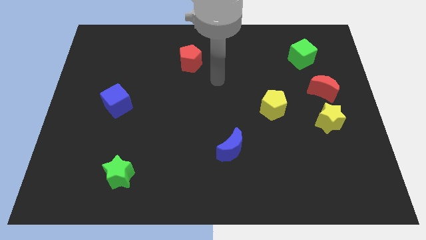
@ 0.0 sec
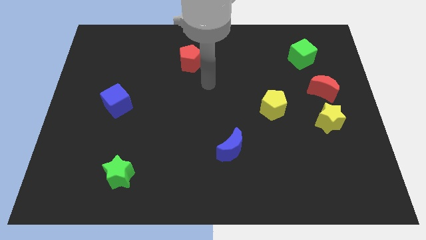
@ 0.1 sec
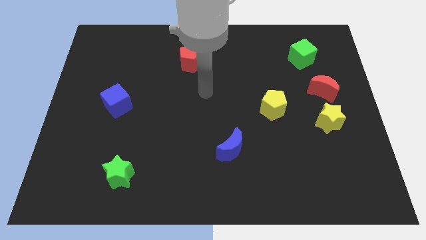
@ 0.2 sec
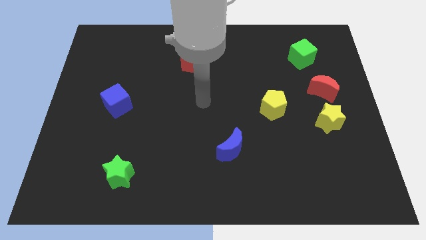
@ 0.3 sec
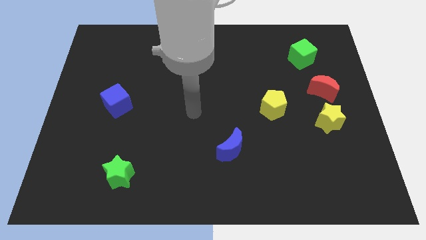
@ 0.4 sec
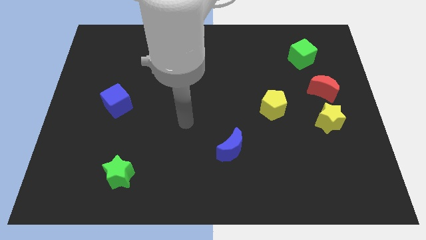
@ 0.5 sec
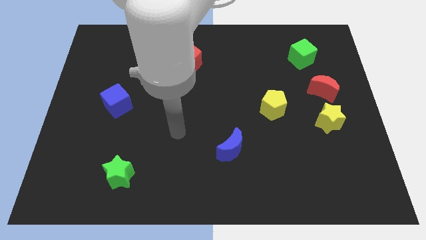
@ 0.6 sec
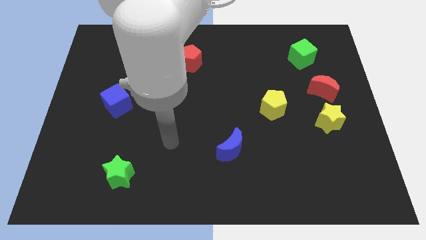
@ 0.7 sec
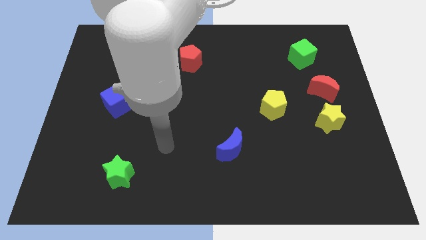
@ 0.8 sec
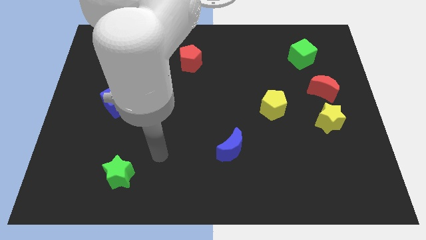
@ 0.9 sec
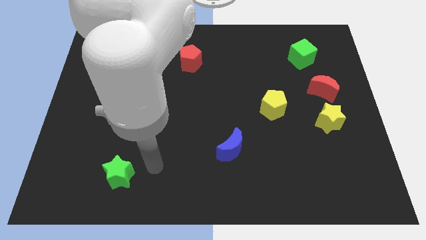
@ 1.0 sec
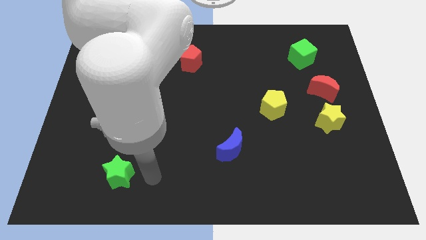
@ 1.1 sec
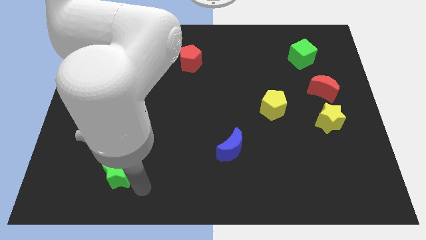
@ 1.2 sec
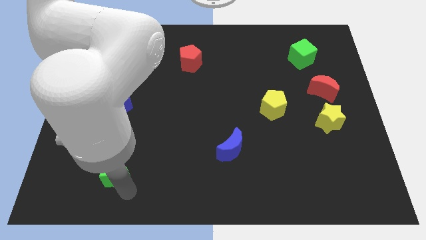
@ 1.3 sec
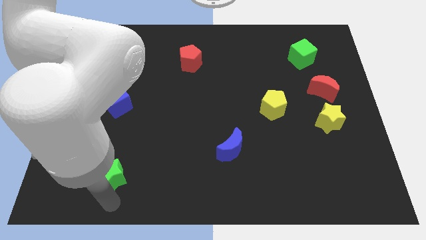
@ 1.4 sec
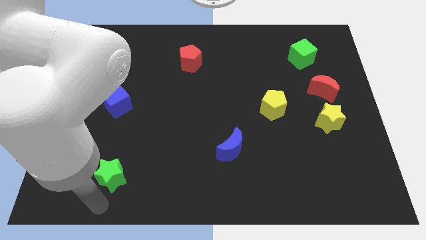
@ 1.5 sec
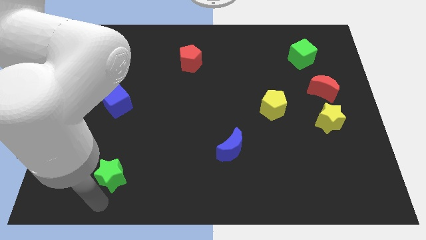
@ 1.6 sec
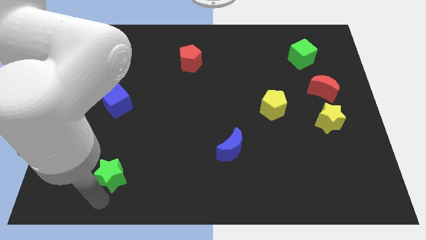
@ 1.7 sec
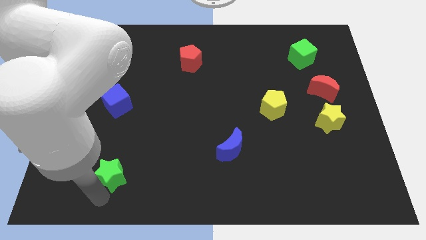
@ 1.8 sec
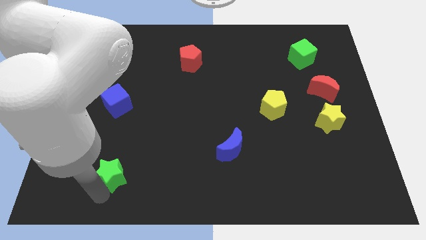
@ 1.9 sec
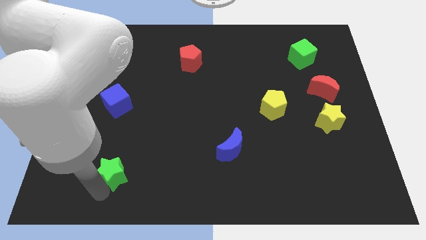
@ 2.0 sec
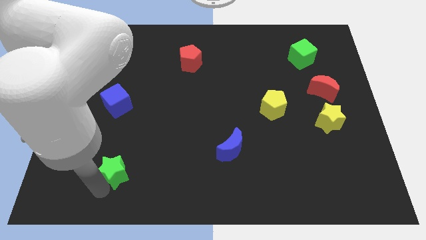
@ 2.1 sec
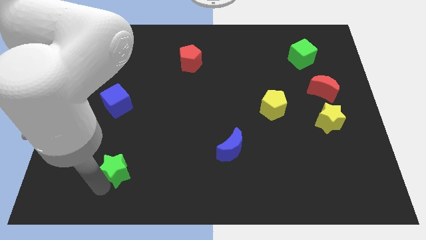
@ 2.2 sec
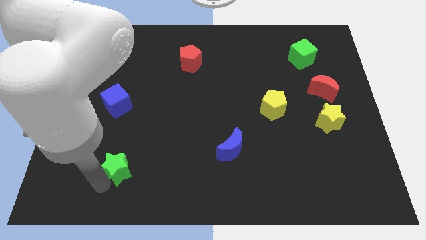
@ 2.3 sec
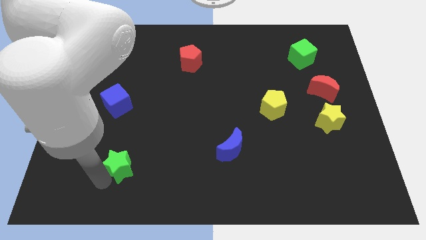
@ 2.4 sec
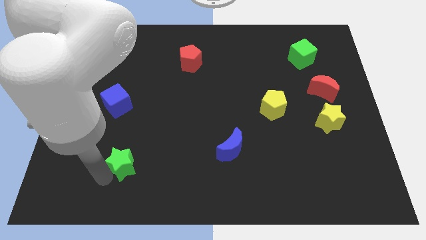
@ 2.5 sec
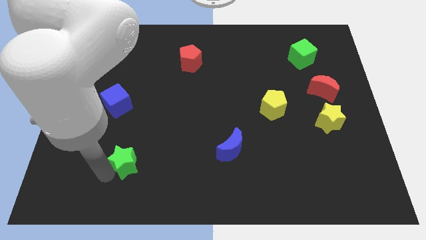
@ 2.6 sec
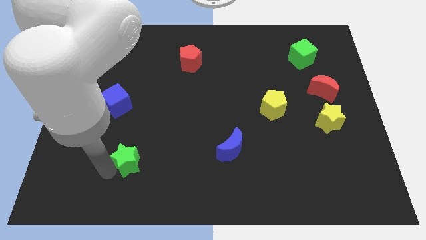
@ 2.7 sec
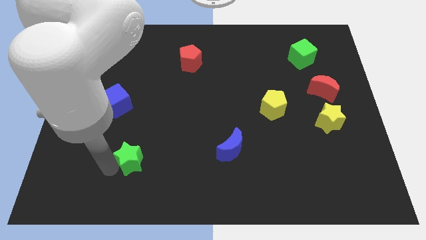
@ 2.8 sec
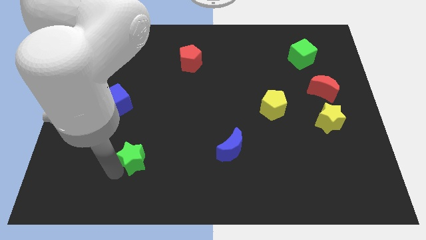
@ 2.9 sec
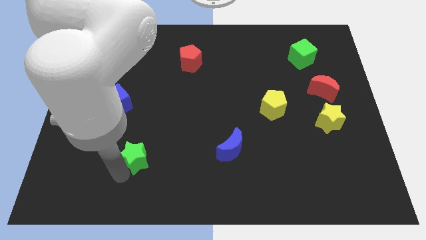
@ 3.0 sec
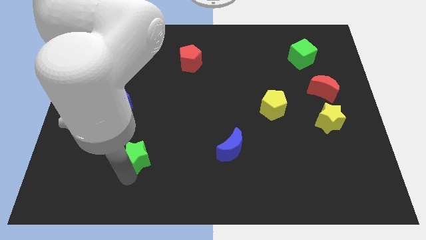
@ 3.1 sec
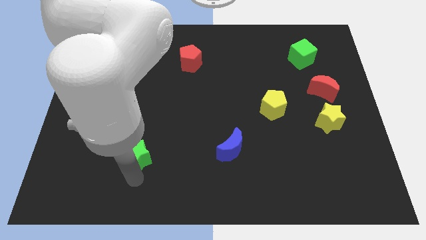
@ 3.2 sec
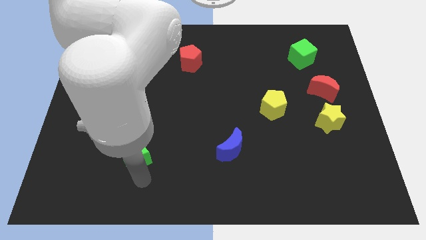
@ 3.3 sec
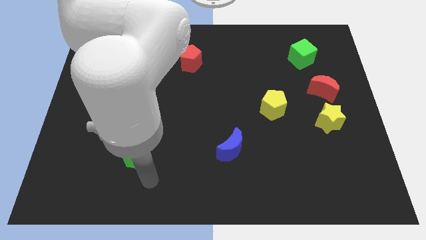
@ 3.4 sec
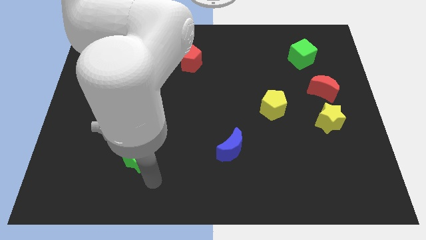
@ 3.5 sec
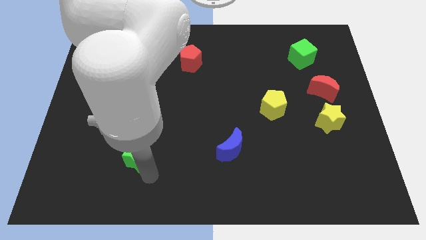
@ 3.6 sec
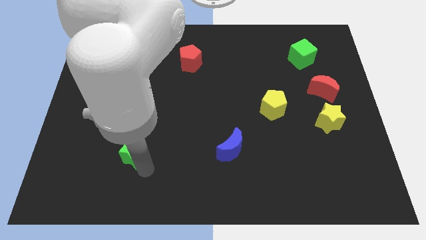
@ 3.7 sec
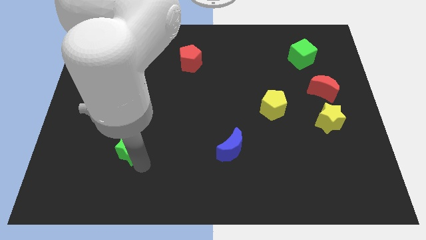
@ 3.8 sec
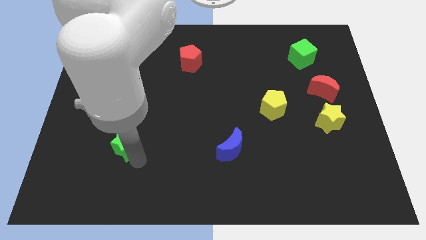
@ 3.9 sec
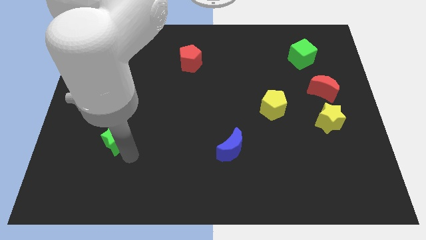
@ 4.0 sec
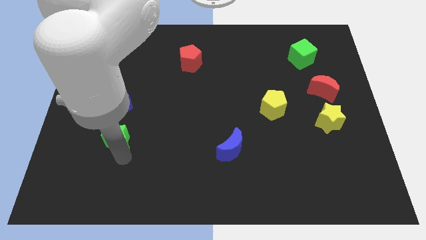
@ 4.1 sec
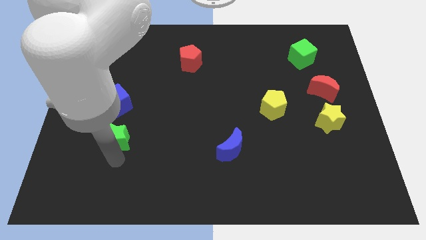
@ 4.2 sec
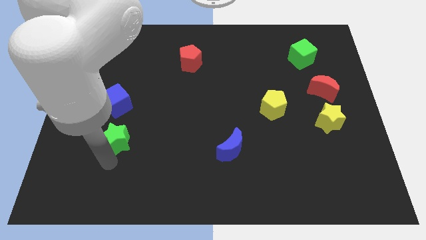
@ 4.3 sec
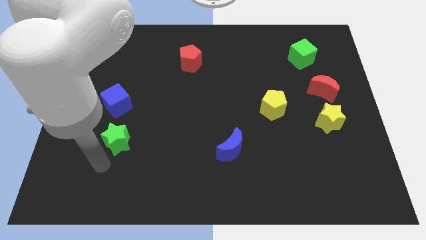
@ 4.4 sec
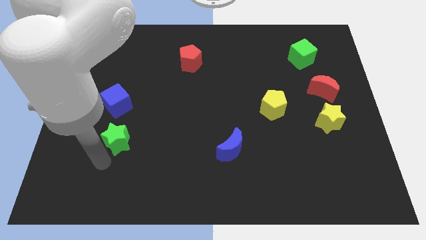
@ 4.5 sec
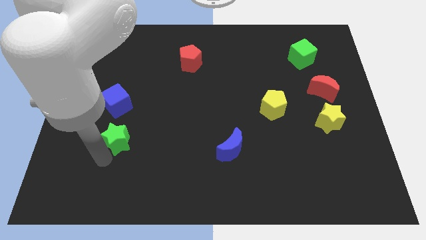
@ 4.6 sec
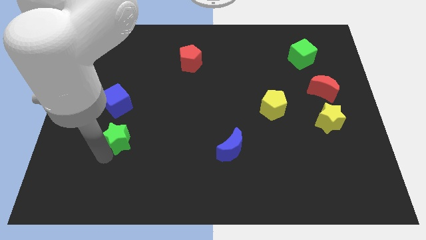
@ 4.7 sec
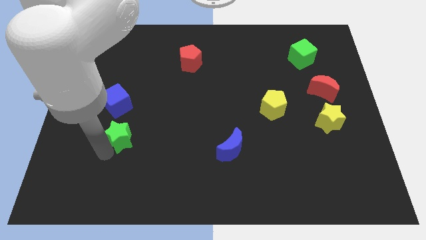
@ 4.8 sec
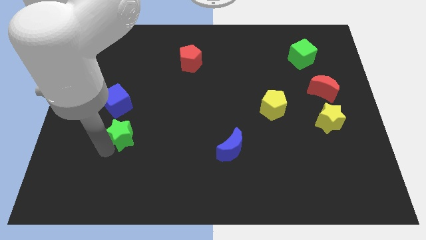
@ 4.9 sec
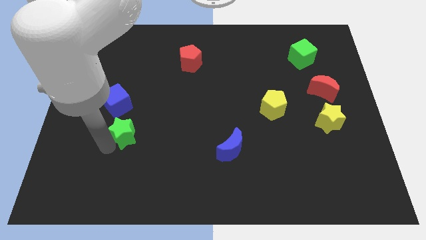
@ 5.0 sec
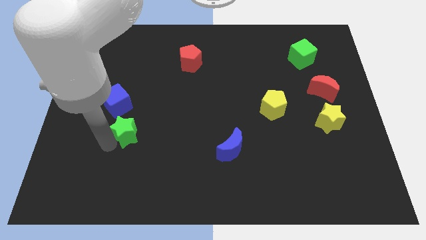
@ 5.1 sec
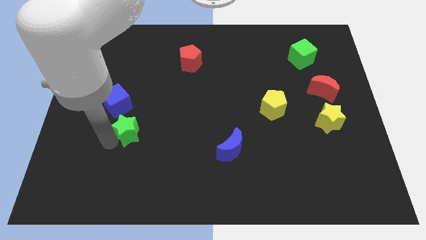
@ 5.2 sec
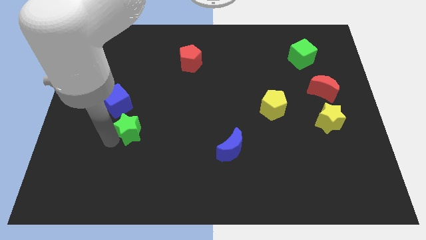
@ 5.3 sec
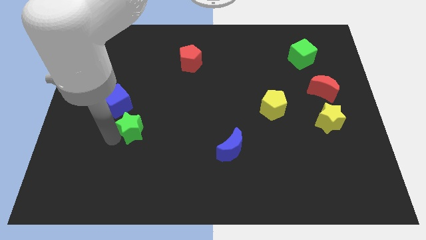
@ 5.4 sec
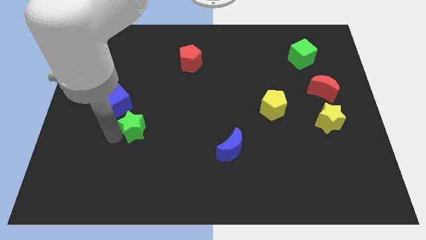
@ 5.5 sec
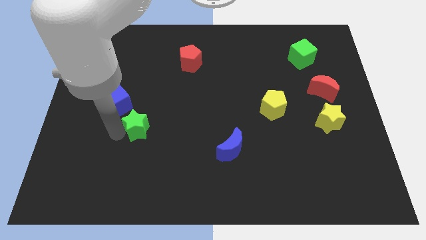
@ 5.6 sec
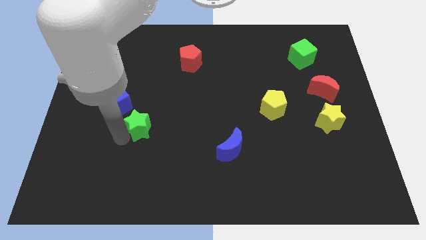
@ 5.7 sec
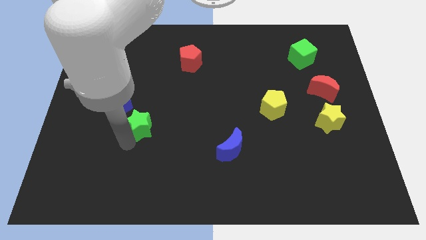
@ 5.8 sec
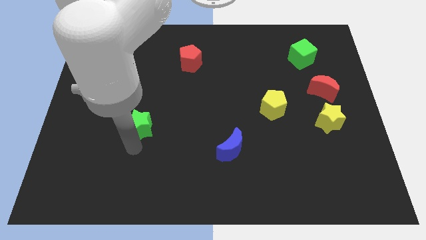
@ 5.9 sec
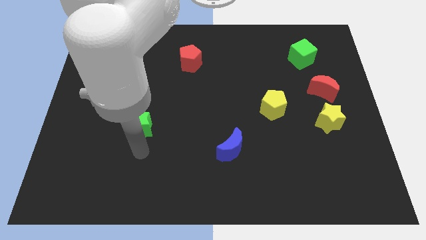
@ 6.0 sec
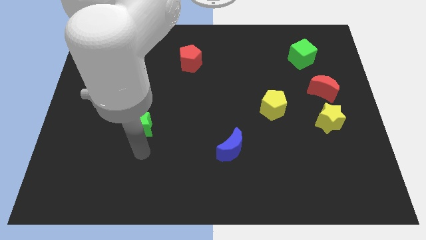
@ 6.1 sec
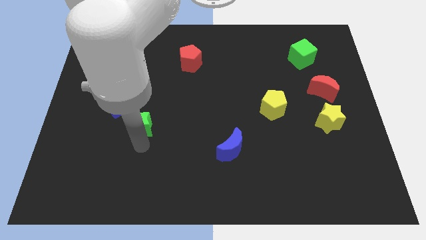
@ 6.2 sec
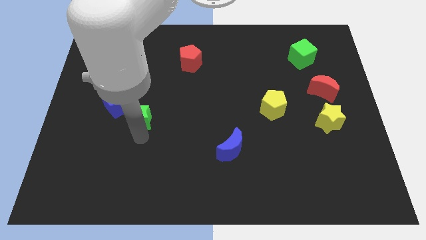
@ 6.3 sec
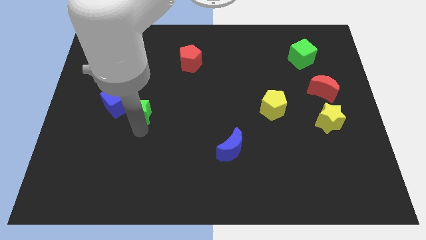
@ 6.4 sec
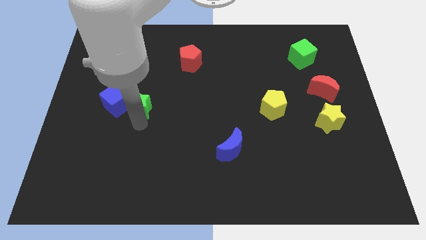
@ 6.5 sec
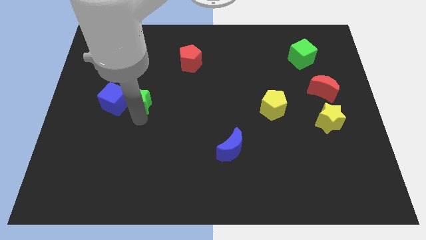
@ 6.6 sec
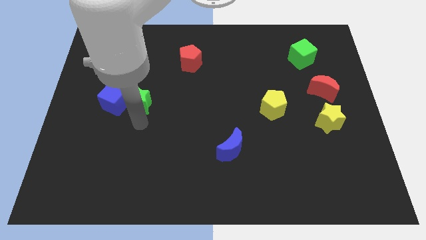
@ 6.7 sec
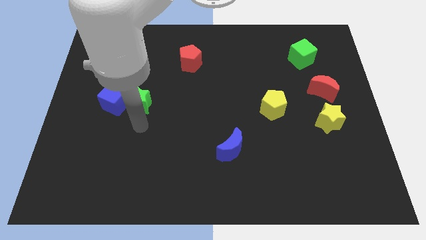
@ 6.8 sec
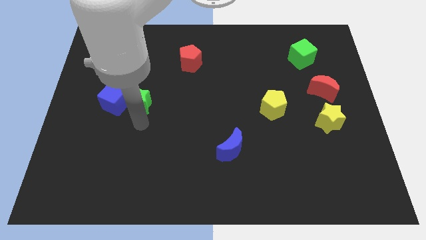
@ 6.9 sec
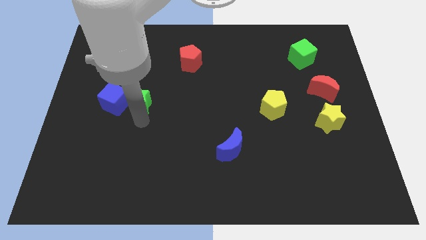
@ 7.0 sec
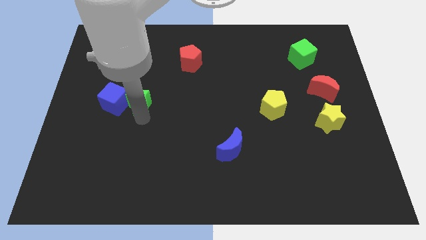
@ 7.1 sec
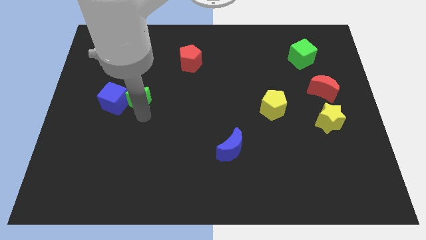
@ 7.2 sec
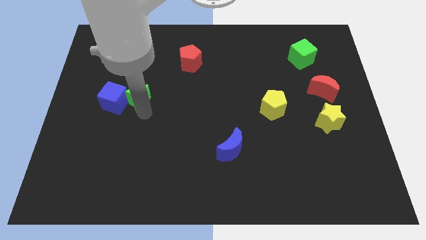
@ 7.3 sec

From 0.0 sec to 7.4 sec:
push the green star upwards

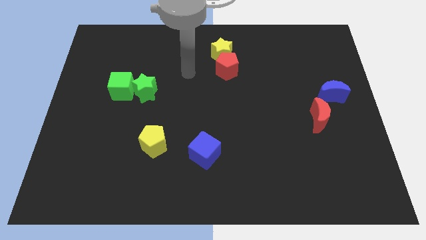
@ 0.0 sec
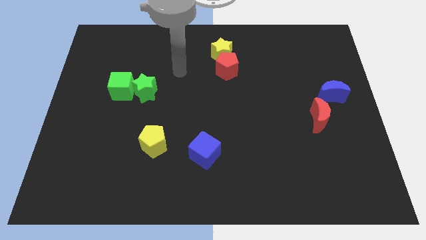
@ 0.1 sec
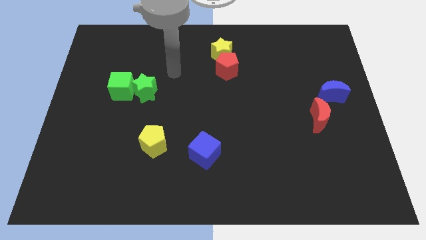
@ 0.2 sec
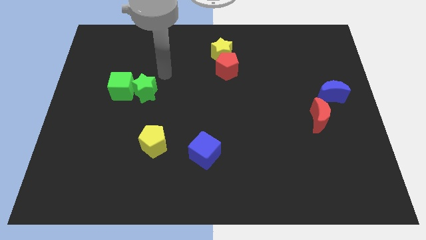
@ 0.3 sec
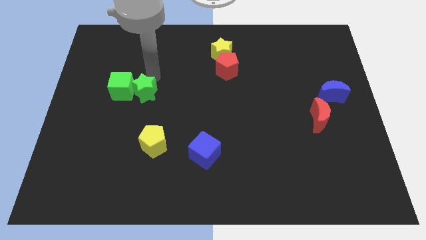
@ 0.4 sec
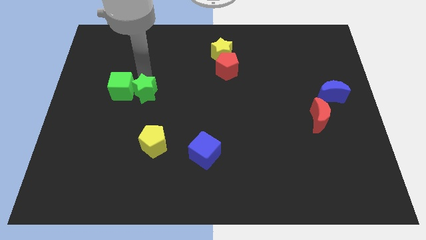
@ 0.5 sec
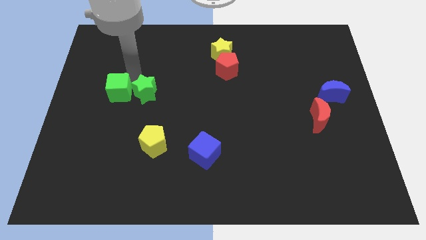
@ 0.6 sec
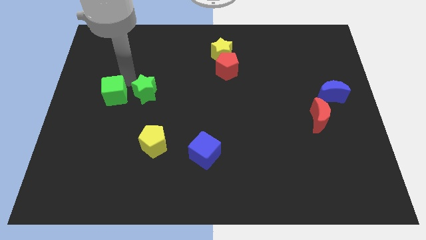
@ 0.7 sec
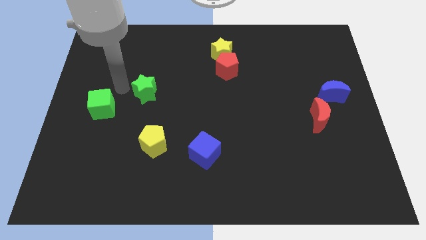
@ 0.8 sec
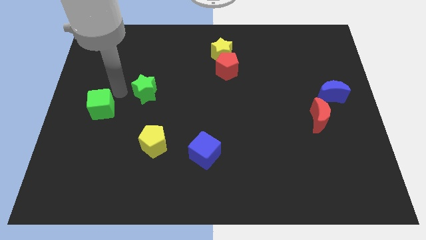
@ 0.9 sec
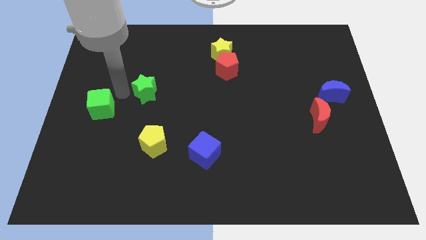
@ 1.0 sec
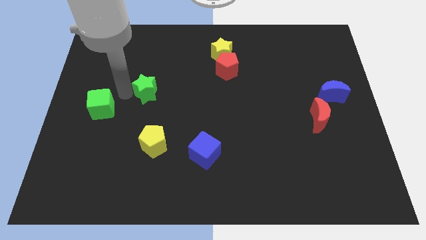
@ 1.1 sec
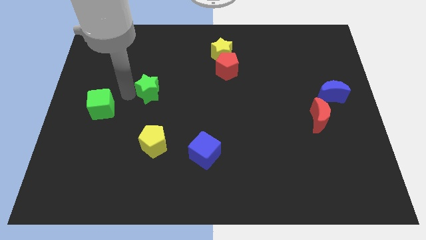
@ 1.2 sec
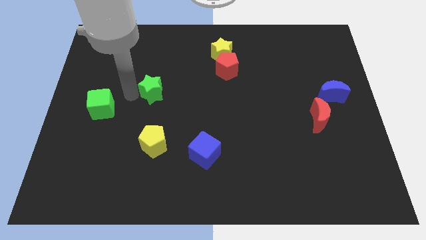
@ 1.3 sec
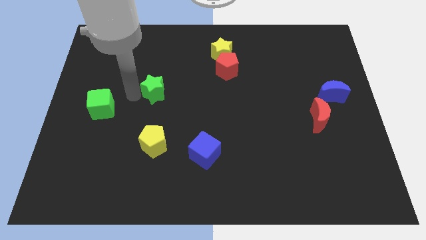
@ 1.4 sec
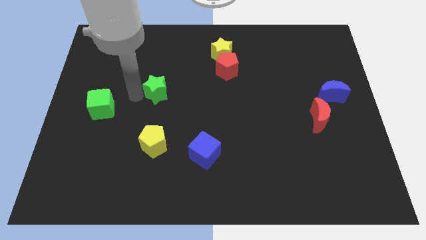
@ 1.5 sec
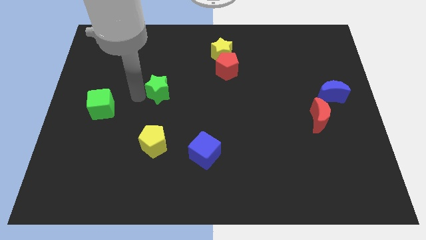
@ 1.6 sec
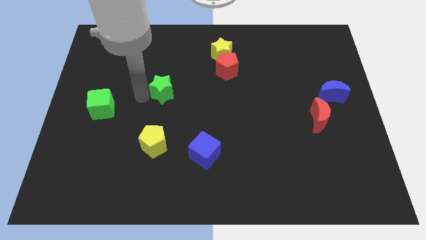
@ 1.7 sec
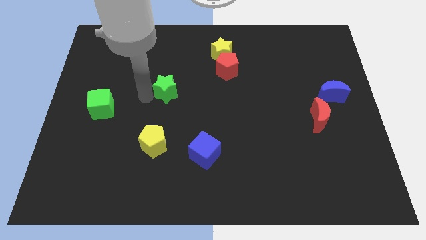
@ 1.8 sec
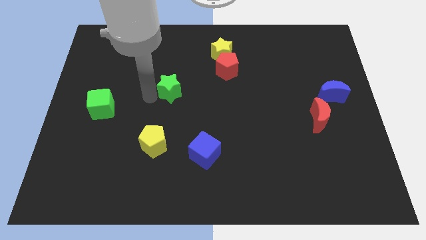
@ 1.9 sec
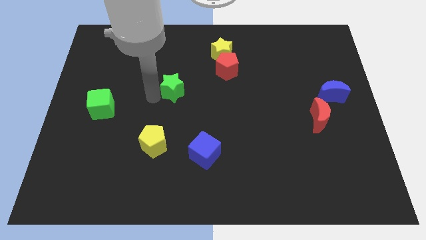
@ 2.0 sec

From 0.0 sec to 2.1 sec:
slightly push the green star right
